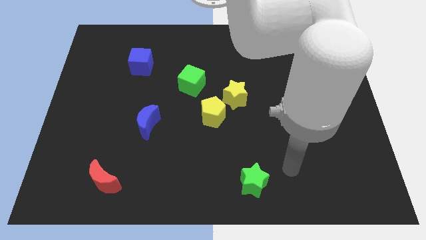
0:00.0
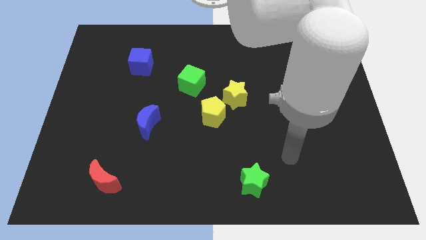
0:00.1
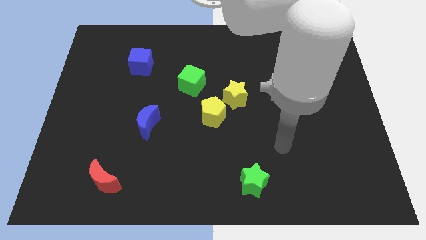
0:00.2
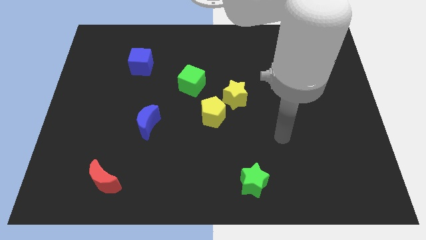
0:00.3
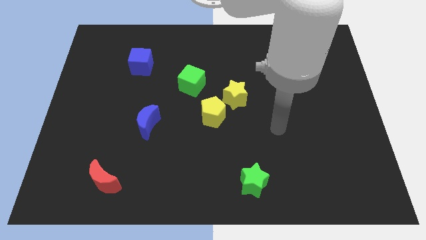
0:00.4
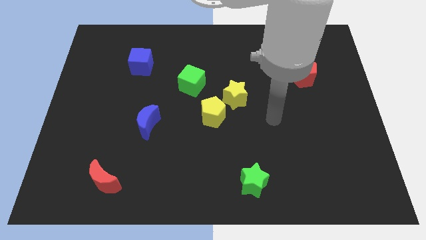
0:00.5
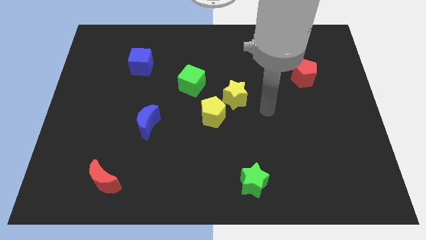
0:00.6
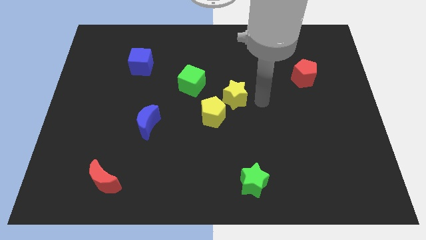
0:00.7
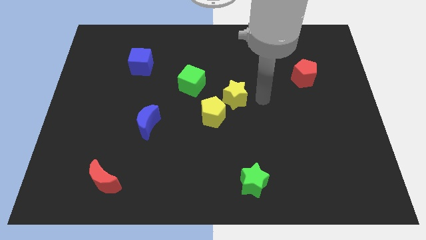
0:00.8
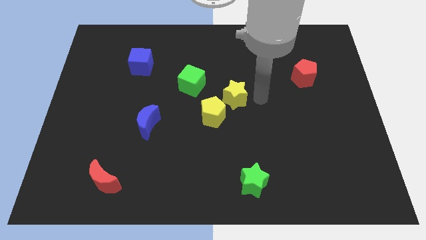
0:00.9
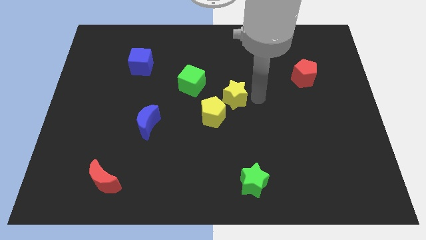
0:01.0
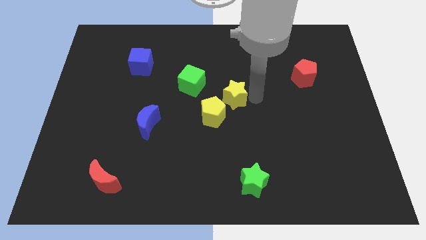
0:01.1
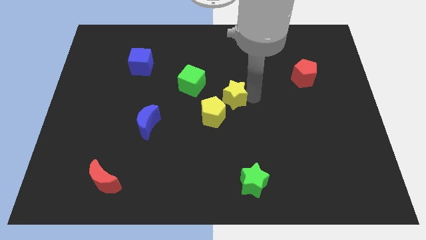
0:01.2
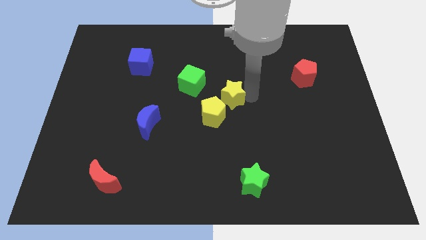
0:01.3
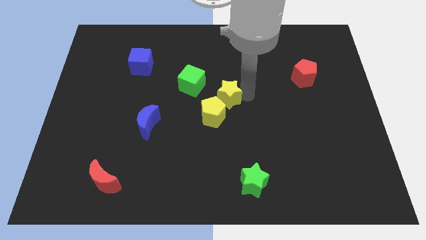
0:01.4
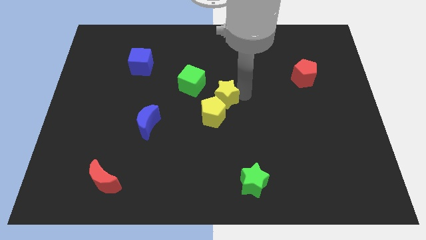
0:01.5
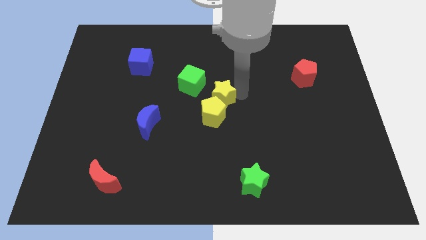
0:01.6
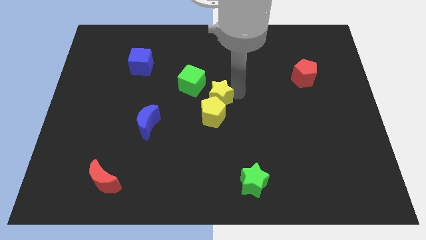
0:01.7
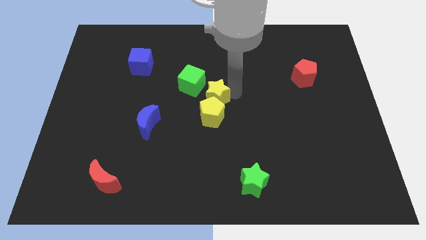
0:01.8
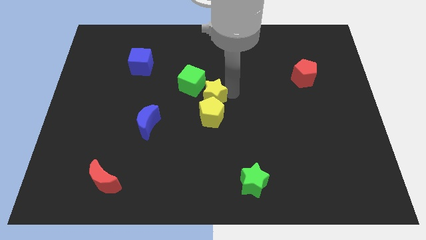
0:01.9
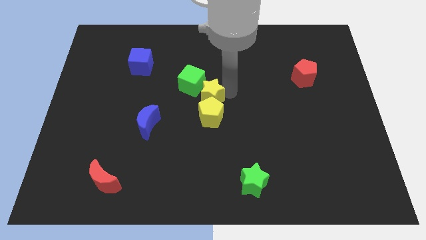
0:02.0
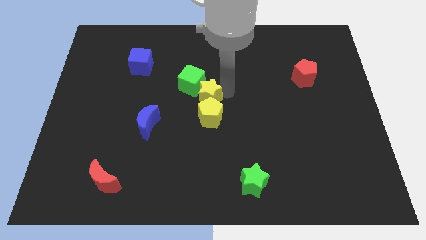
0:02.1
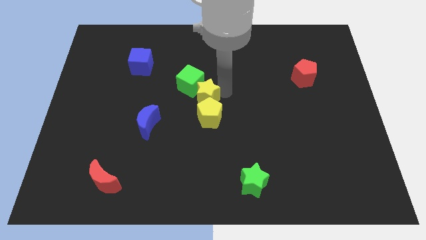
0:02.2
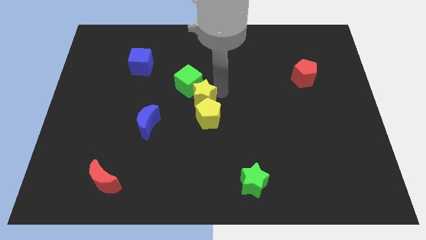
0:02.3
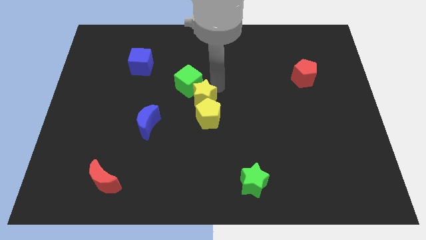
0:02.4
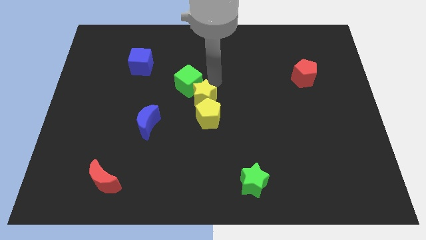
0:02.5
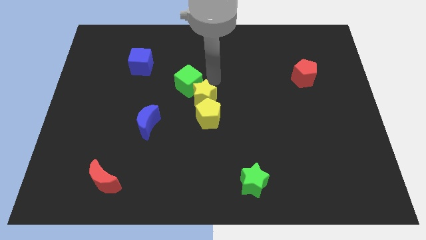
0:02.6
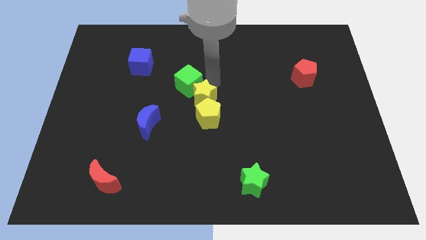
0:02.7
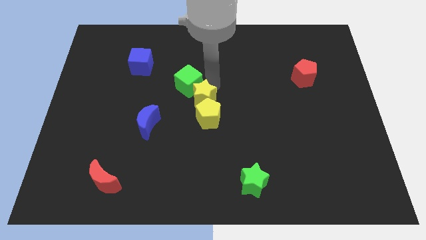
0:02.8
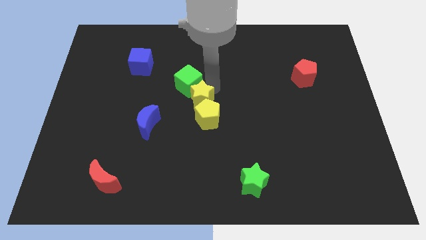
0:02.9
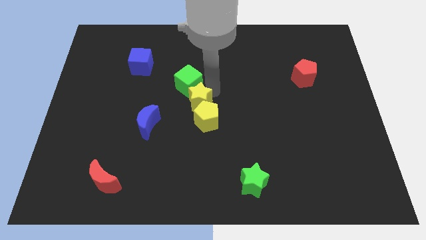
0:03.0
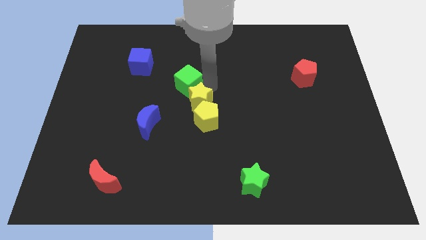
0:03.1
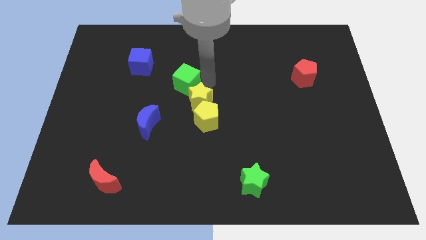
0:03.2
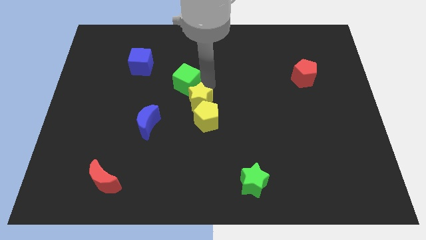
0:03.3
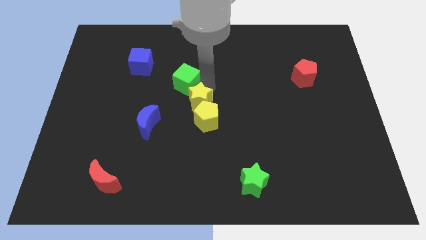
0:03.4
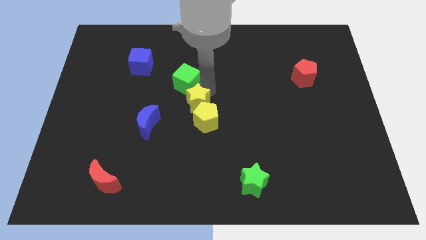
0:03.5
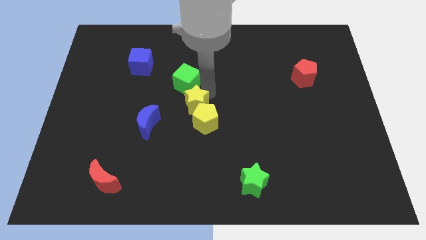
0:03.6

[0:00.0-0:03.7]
slightly slide the yellow star down and left

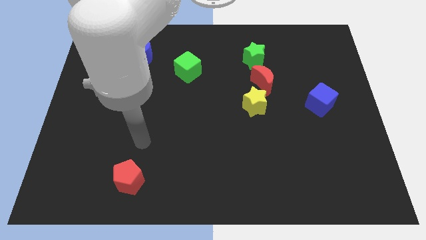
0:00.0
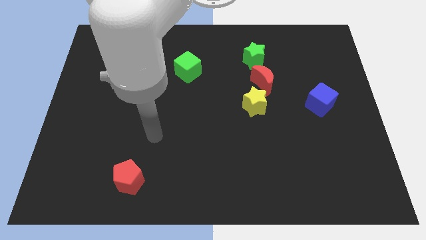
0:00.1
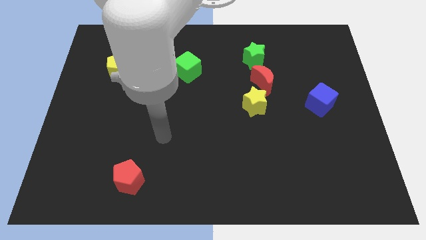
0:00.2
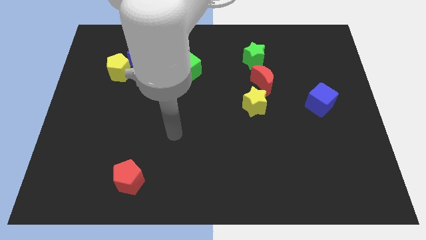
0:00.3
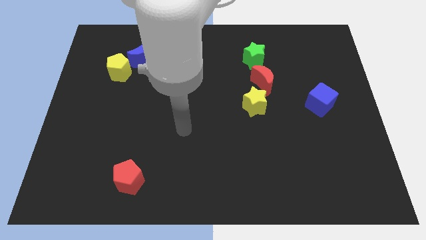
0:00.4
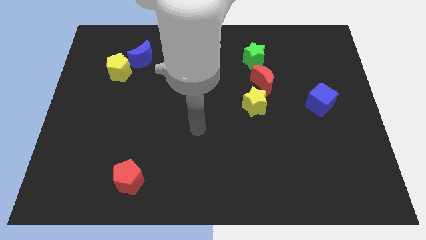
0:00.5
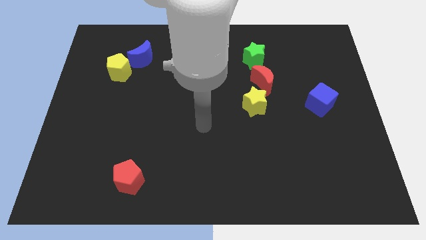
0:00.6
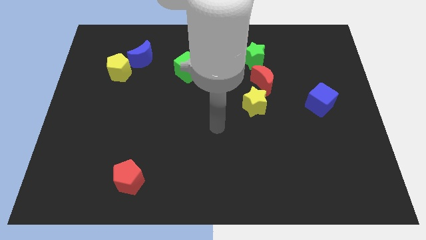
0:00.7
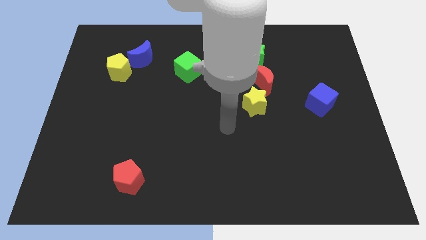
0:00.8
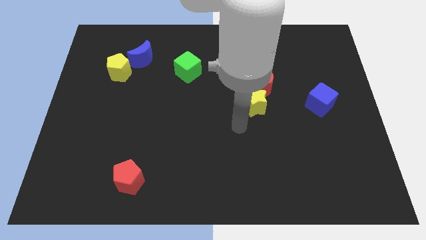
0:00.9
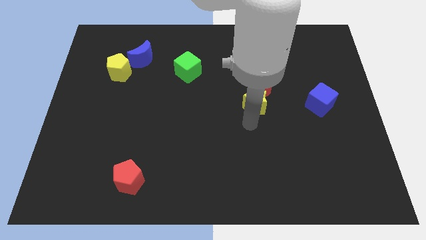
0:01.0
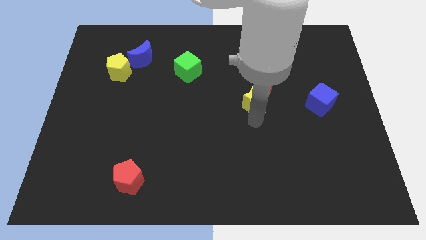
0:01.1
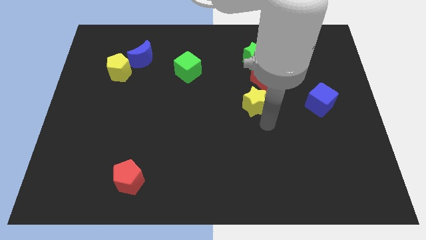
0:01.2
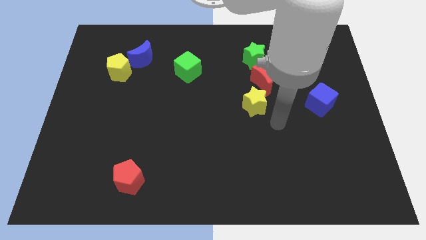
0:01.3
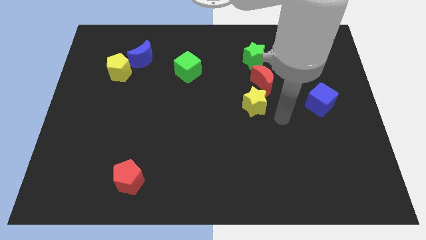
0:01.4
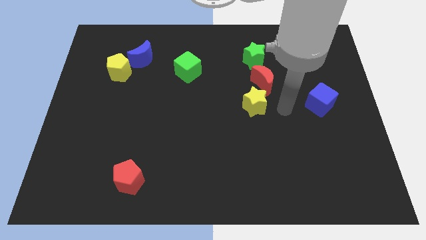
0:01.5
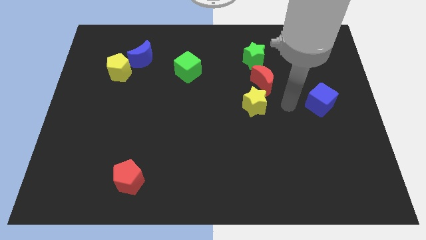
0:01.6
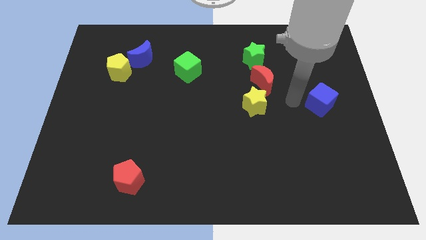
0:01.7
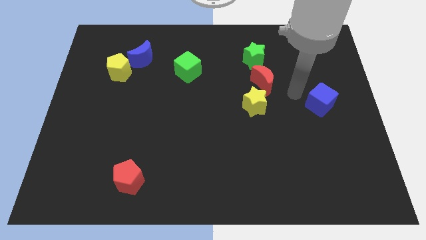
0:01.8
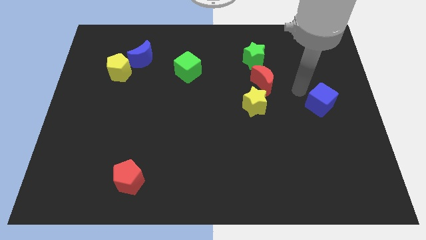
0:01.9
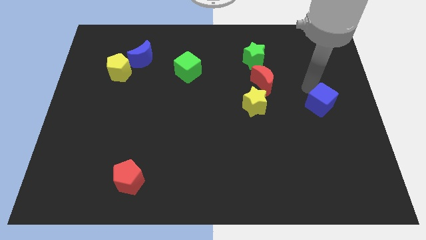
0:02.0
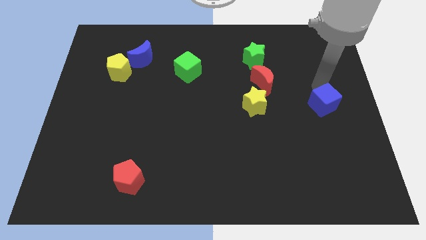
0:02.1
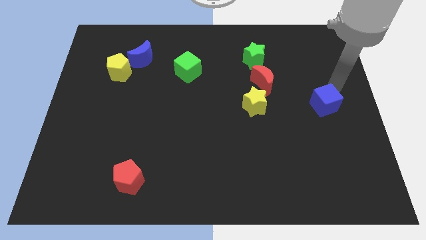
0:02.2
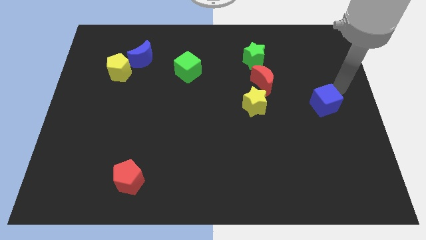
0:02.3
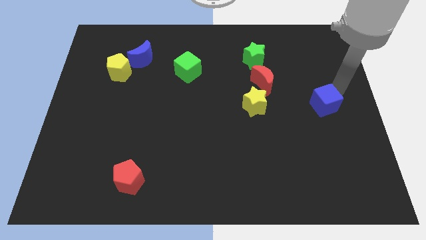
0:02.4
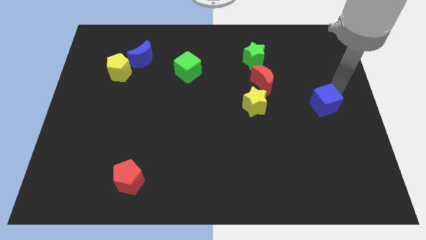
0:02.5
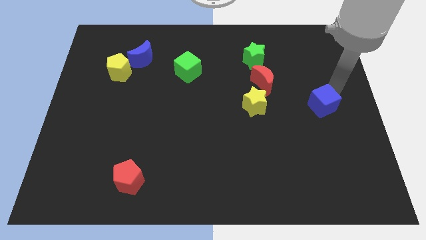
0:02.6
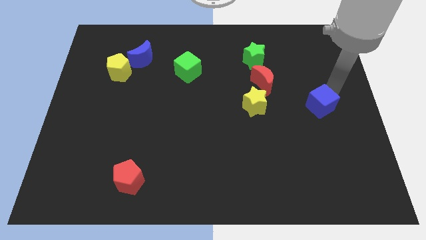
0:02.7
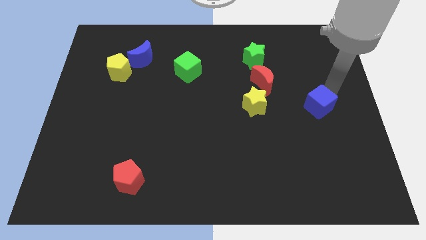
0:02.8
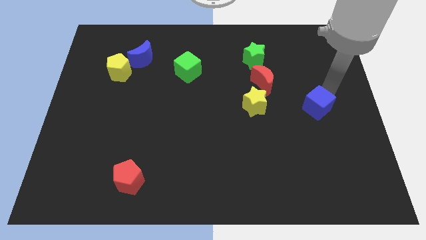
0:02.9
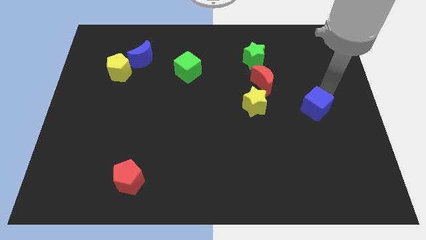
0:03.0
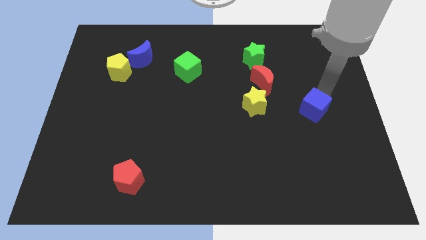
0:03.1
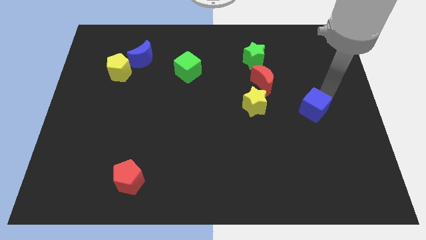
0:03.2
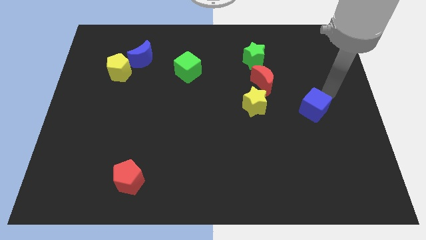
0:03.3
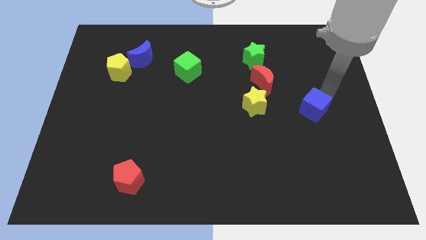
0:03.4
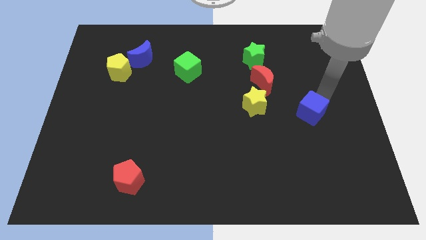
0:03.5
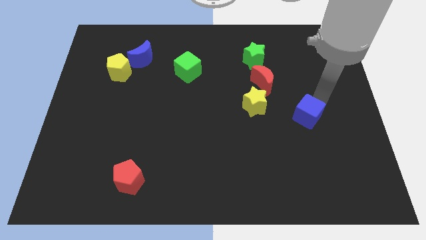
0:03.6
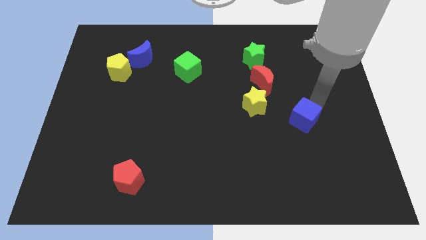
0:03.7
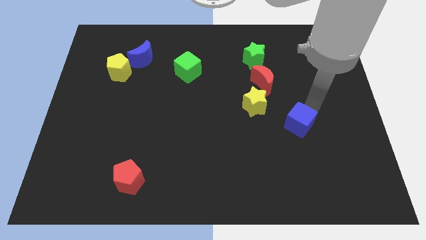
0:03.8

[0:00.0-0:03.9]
move the blue cube a little bit downwards and then left

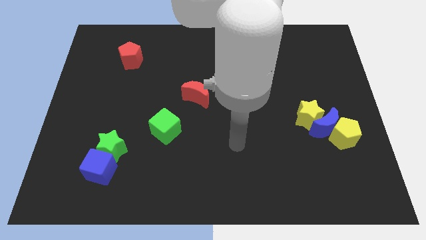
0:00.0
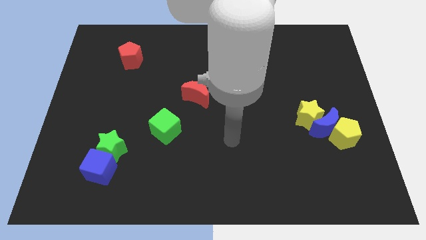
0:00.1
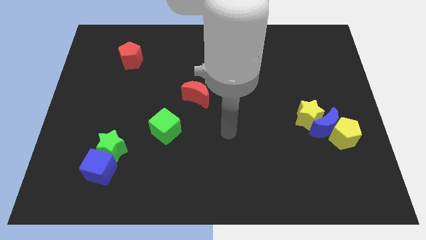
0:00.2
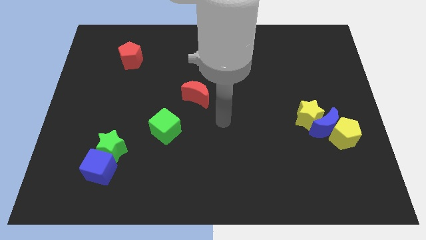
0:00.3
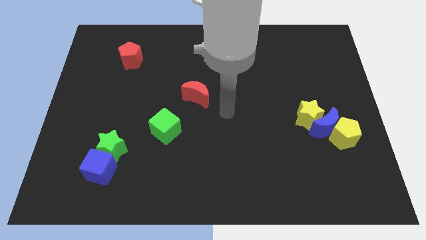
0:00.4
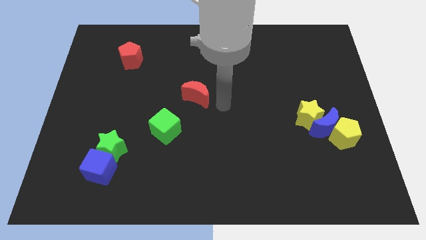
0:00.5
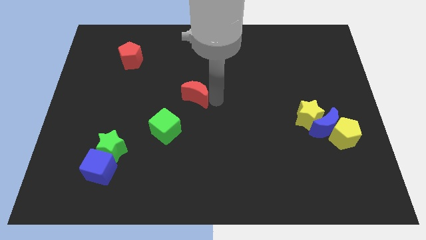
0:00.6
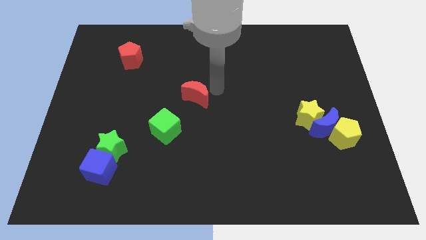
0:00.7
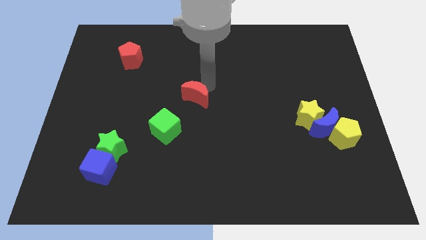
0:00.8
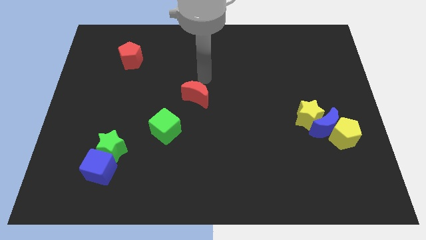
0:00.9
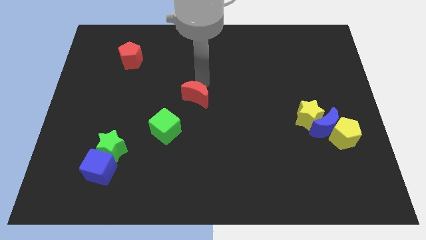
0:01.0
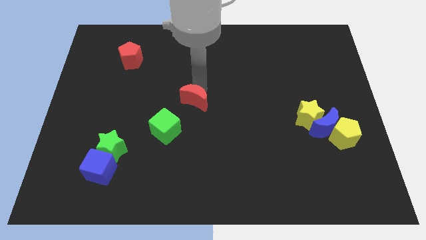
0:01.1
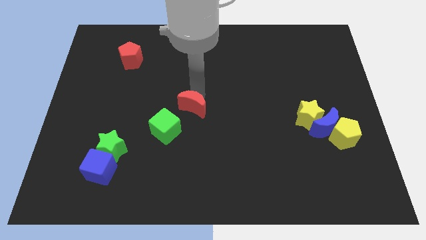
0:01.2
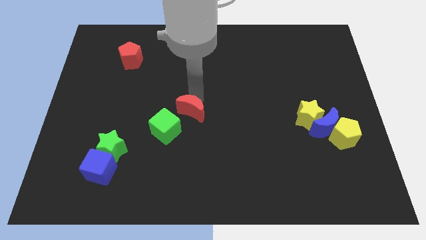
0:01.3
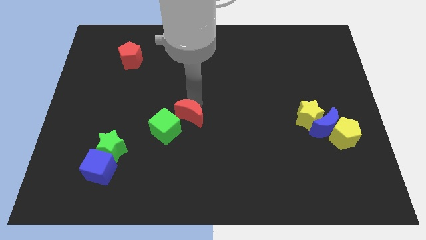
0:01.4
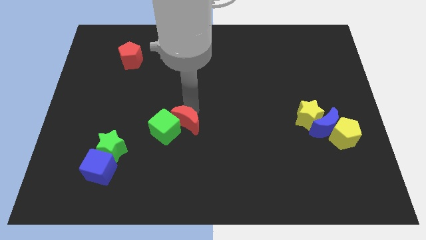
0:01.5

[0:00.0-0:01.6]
slide the red moon down somewhat
